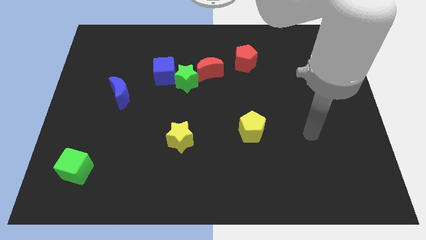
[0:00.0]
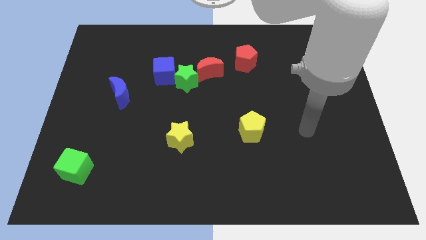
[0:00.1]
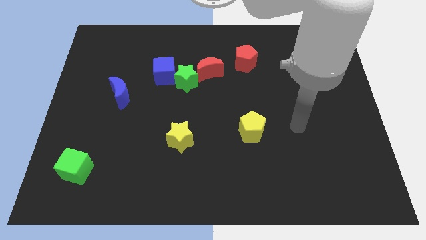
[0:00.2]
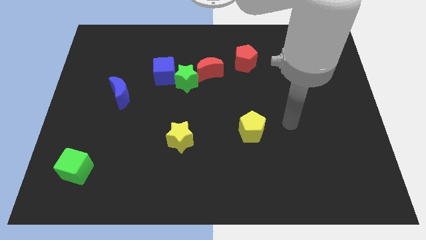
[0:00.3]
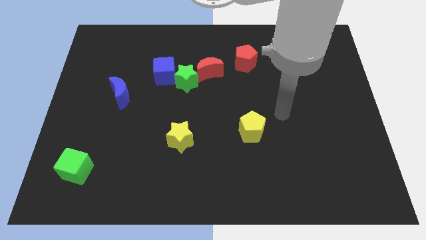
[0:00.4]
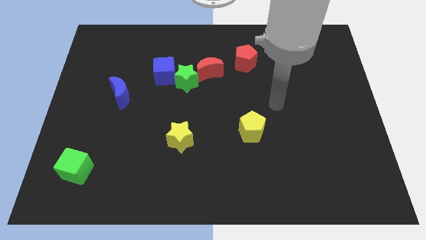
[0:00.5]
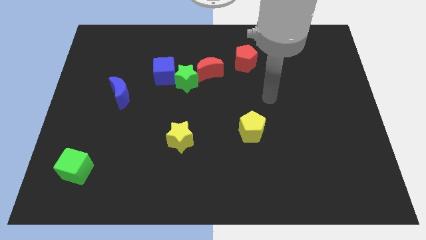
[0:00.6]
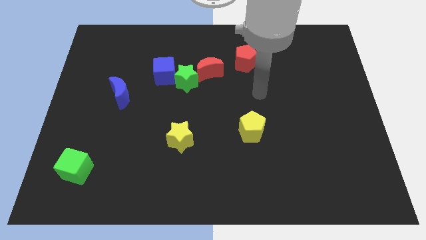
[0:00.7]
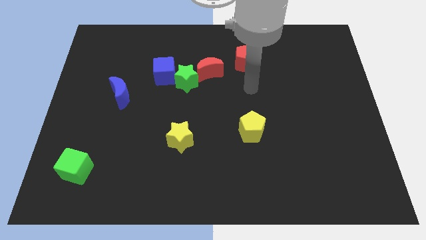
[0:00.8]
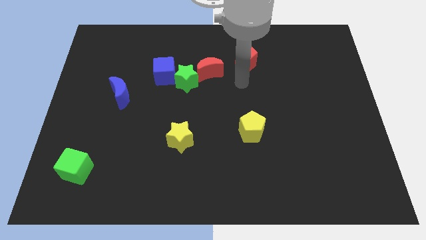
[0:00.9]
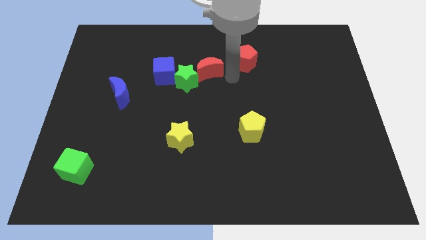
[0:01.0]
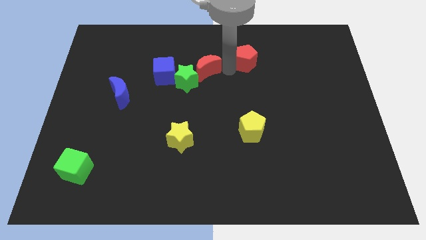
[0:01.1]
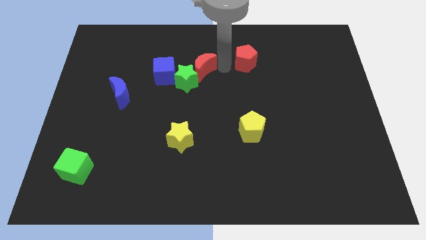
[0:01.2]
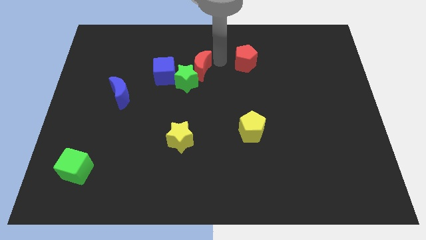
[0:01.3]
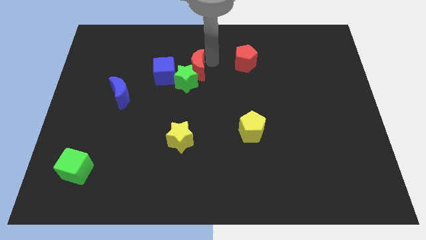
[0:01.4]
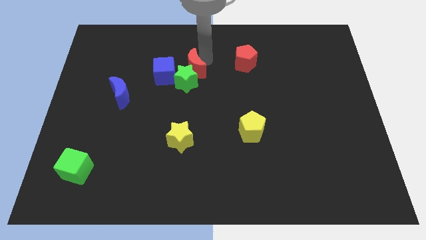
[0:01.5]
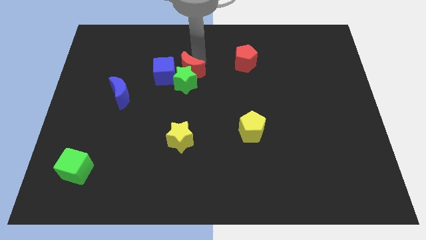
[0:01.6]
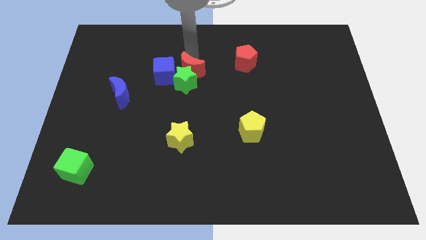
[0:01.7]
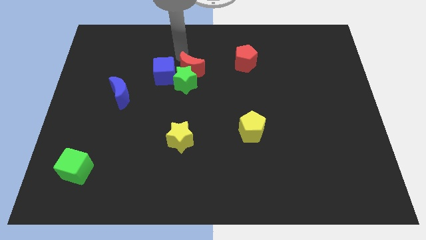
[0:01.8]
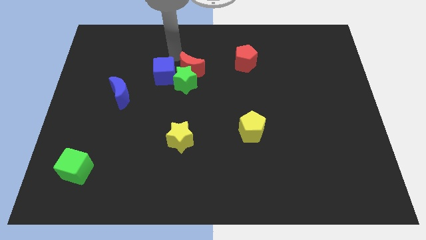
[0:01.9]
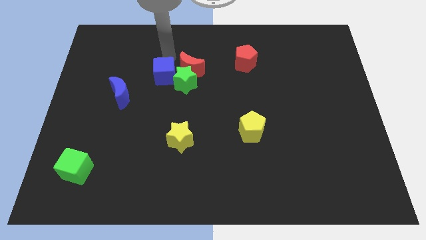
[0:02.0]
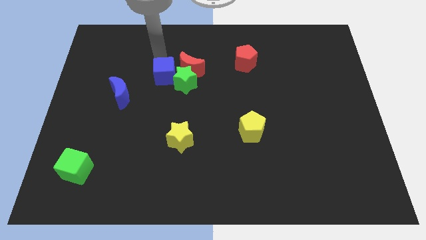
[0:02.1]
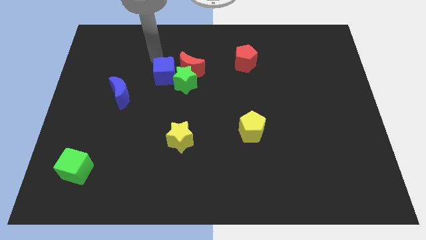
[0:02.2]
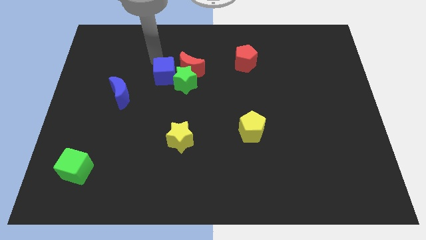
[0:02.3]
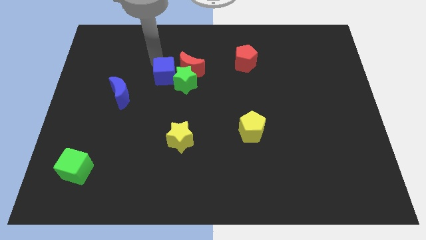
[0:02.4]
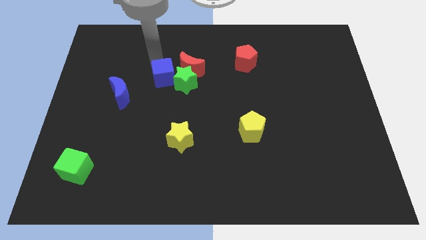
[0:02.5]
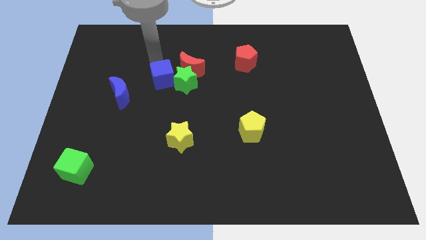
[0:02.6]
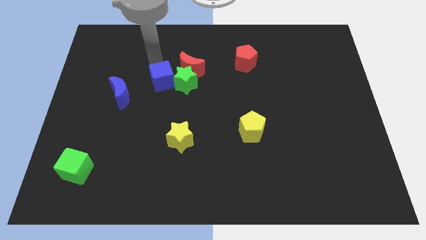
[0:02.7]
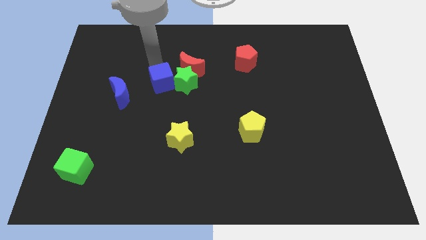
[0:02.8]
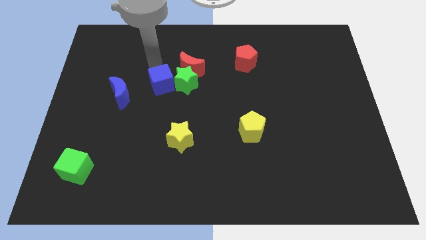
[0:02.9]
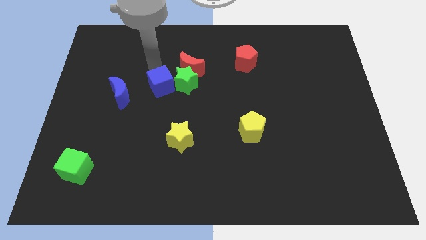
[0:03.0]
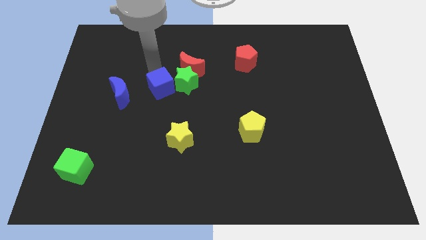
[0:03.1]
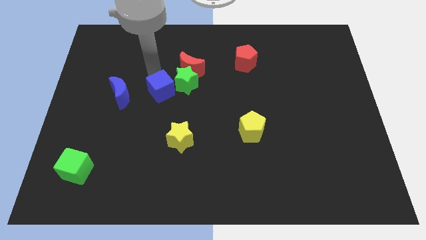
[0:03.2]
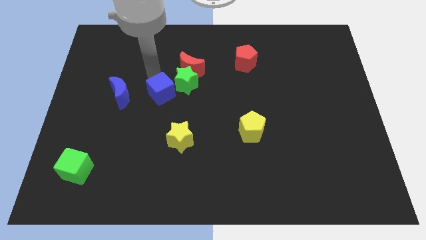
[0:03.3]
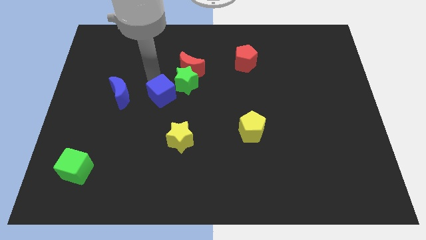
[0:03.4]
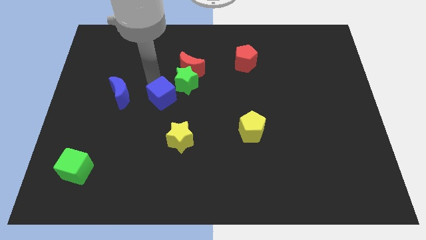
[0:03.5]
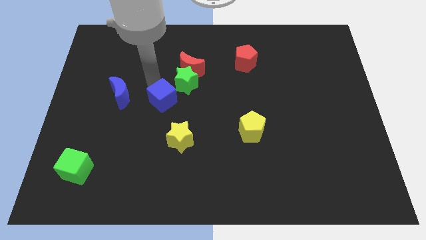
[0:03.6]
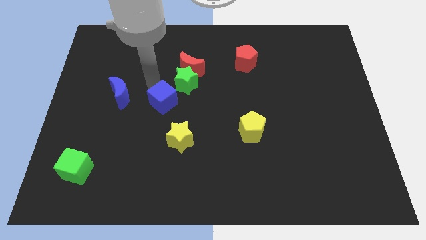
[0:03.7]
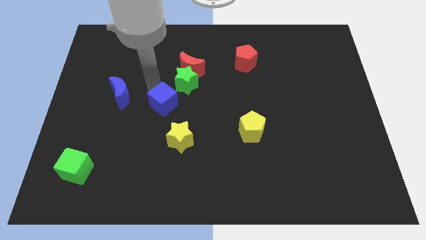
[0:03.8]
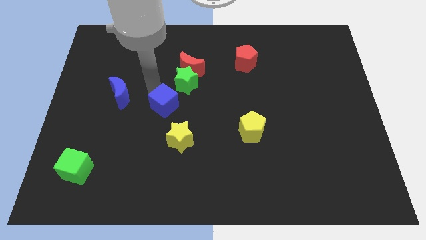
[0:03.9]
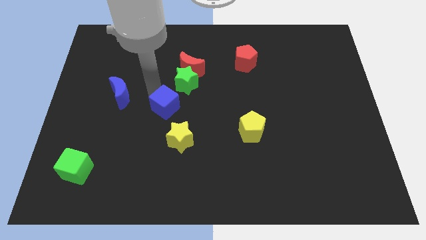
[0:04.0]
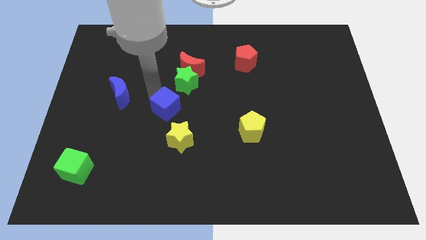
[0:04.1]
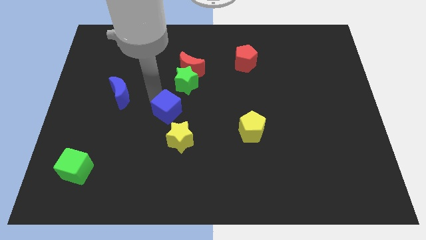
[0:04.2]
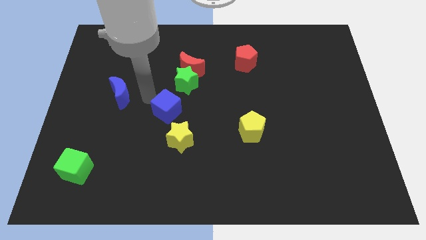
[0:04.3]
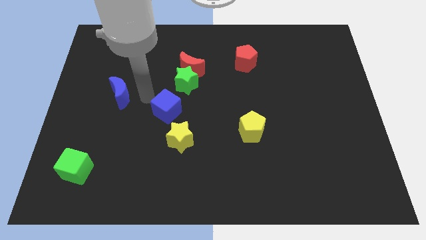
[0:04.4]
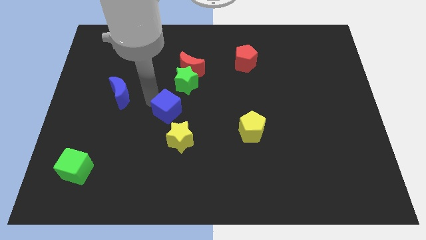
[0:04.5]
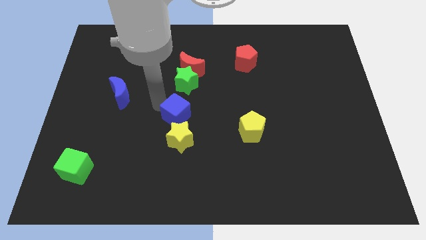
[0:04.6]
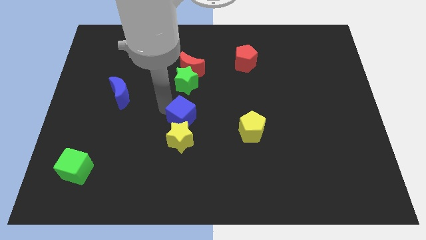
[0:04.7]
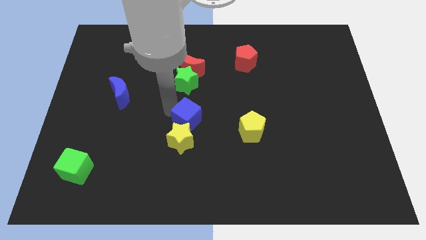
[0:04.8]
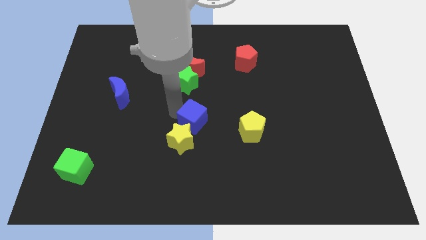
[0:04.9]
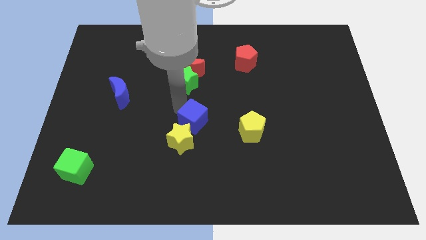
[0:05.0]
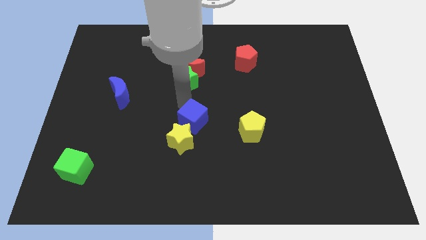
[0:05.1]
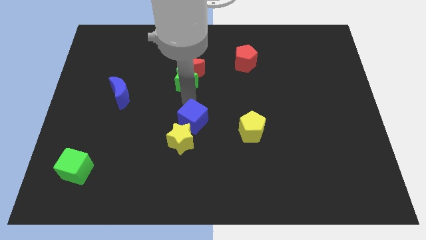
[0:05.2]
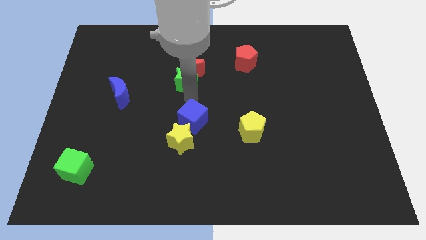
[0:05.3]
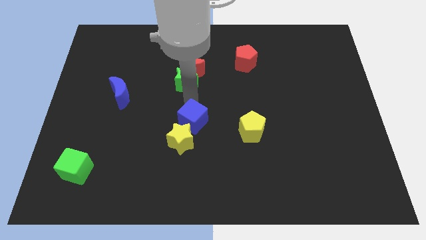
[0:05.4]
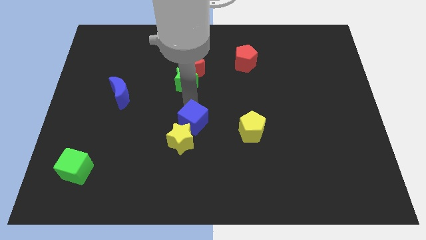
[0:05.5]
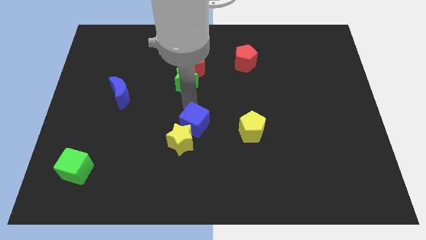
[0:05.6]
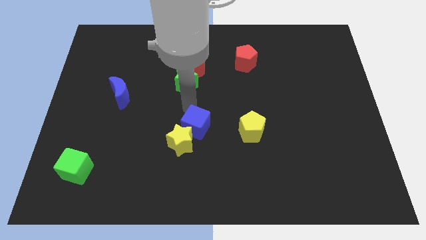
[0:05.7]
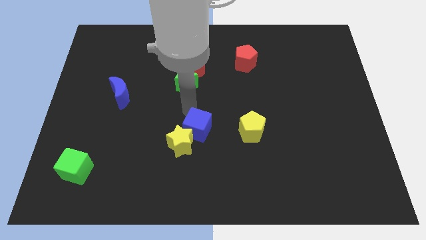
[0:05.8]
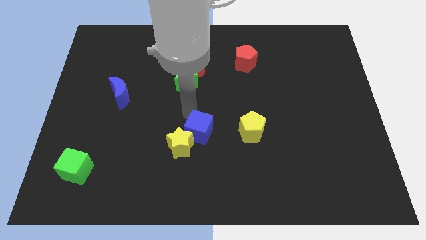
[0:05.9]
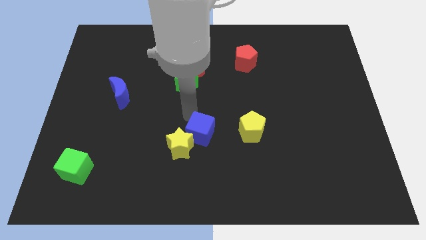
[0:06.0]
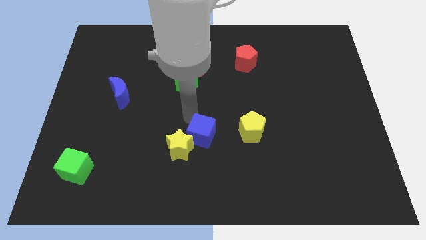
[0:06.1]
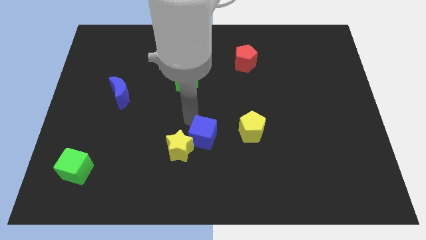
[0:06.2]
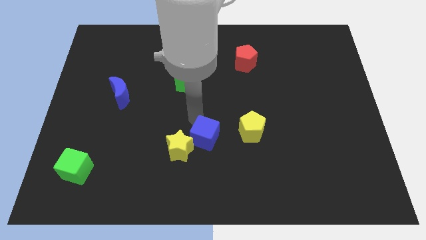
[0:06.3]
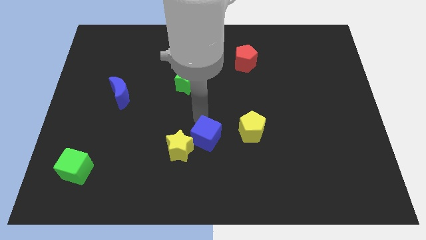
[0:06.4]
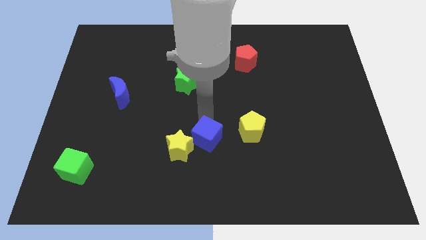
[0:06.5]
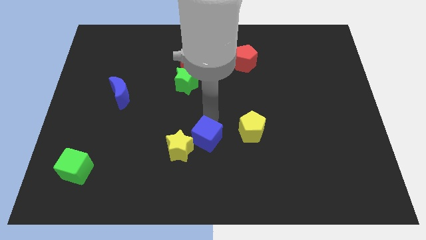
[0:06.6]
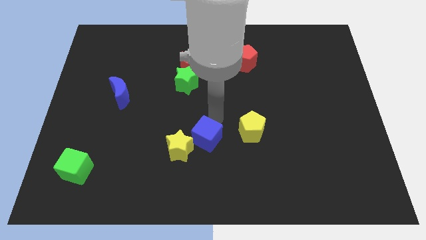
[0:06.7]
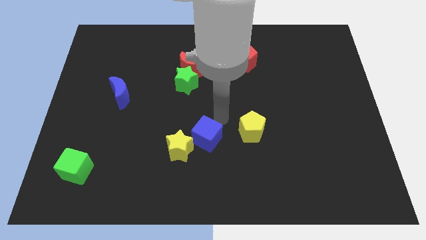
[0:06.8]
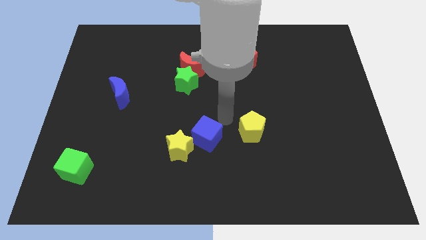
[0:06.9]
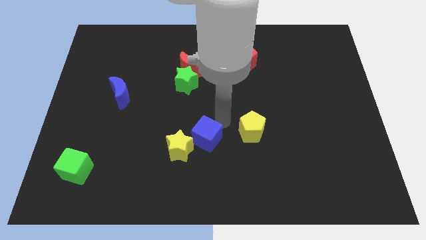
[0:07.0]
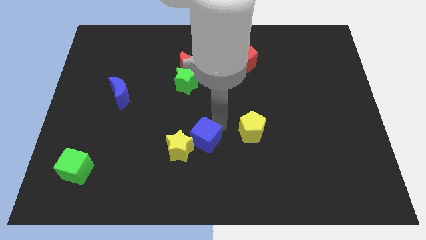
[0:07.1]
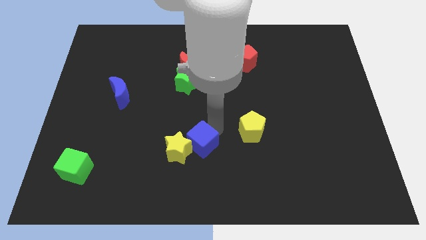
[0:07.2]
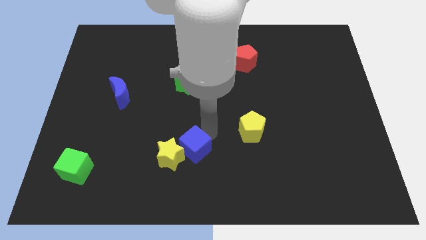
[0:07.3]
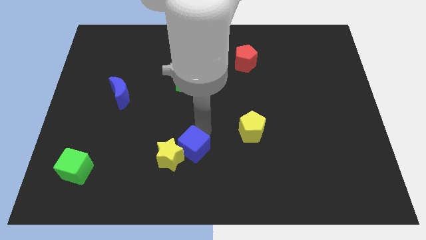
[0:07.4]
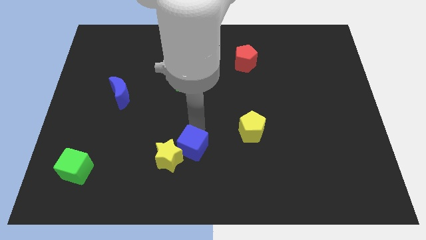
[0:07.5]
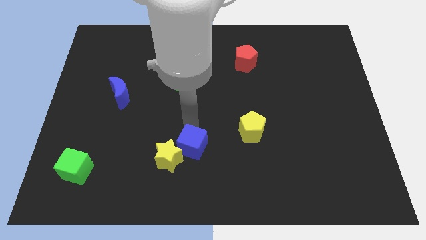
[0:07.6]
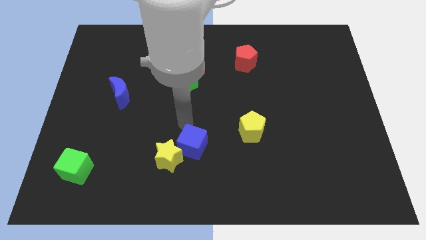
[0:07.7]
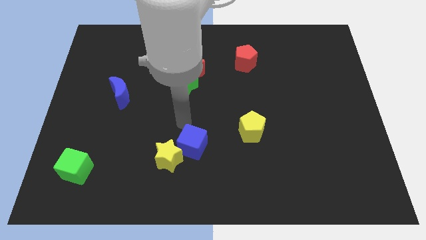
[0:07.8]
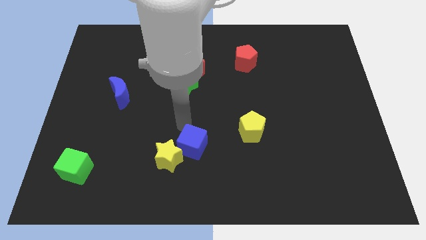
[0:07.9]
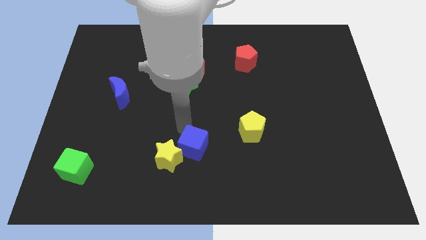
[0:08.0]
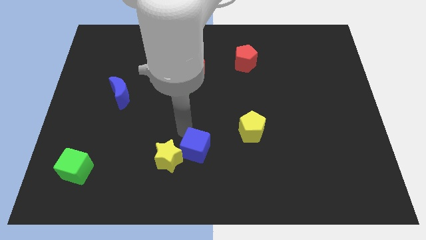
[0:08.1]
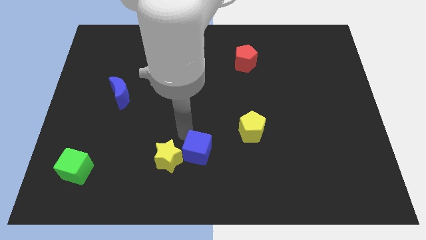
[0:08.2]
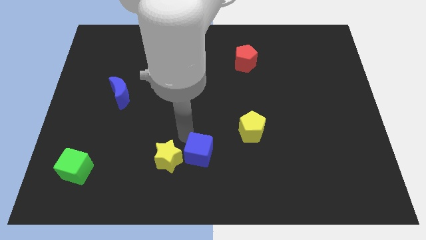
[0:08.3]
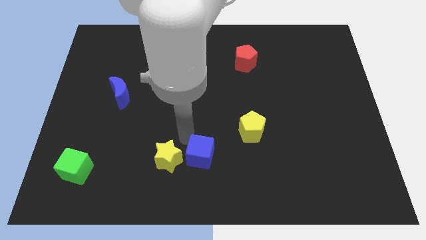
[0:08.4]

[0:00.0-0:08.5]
put the blue cube to the bottom
